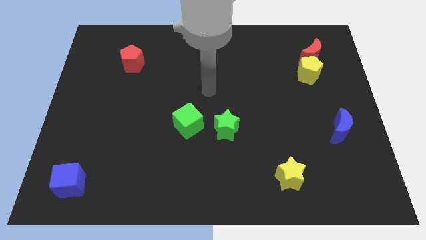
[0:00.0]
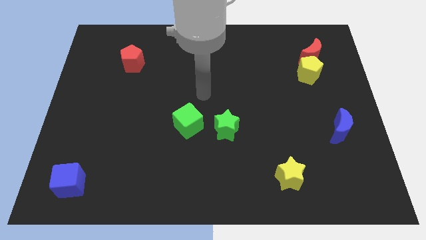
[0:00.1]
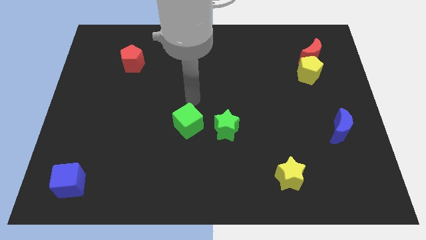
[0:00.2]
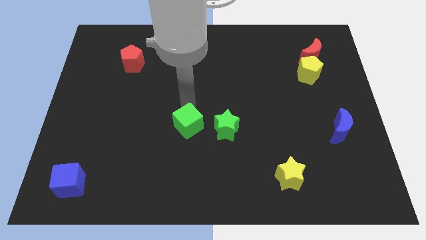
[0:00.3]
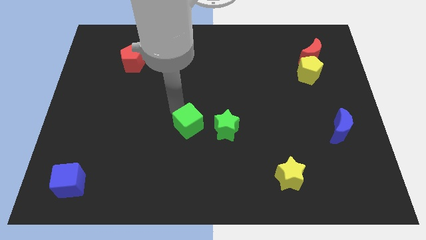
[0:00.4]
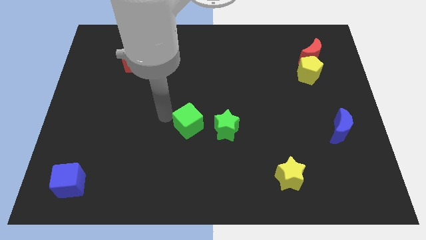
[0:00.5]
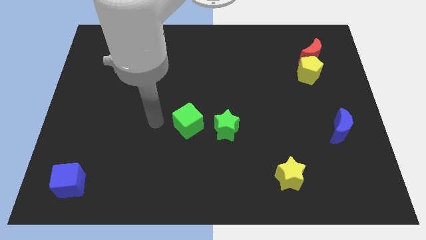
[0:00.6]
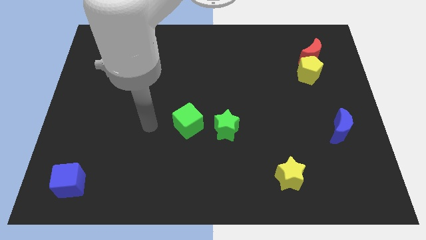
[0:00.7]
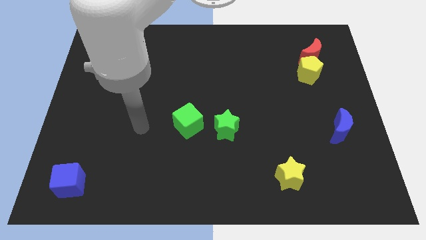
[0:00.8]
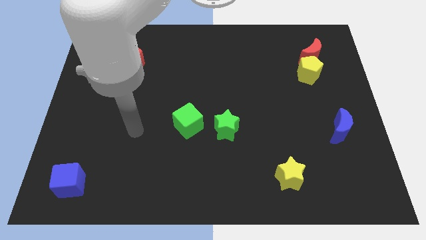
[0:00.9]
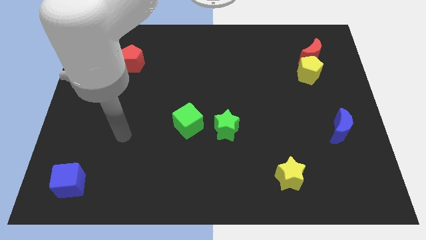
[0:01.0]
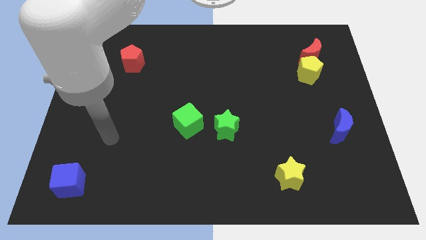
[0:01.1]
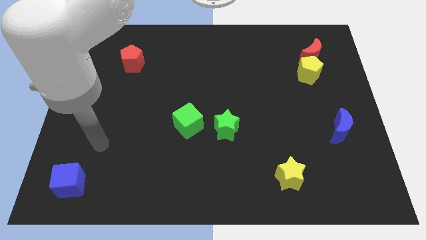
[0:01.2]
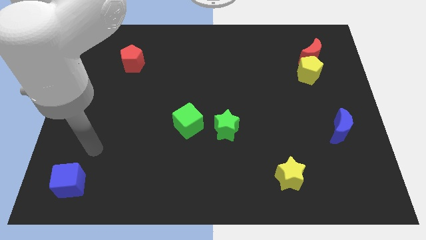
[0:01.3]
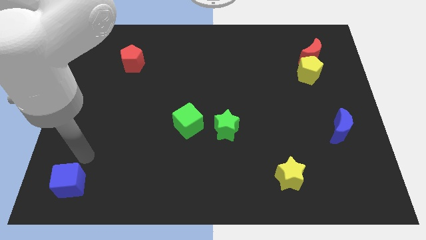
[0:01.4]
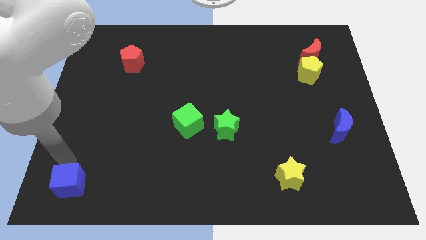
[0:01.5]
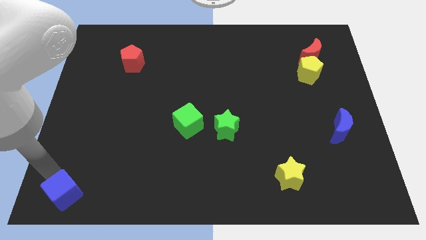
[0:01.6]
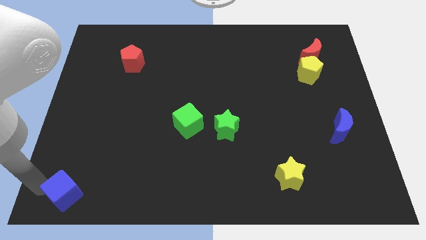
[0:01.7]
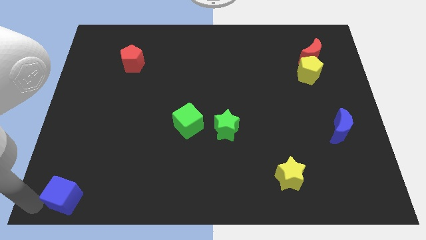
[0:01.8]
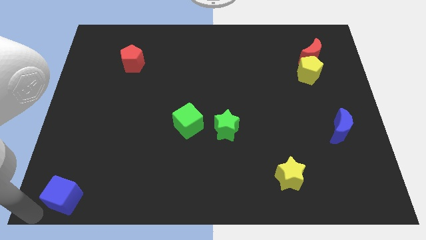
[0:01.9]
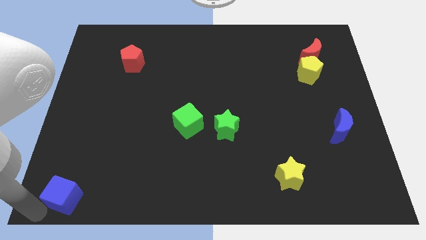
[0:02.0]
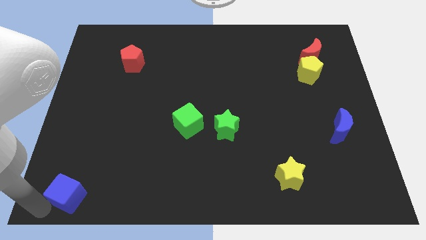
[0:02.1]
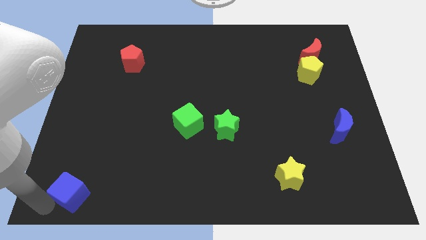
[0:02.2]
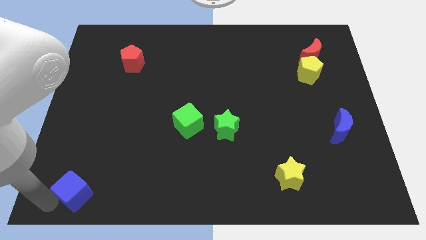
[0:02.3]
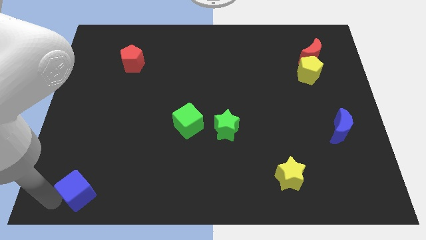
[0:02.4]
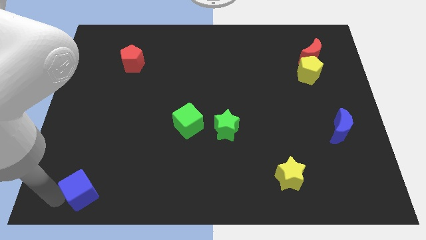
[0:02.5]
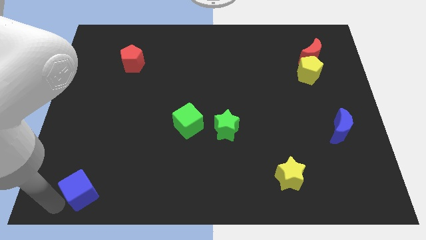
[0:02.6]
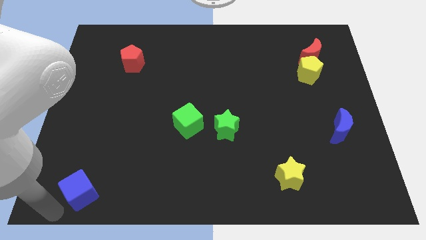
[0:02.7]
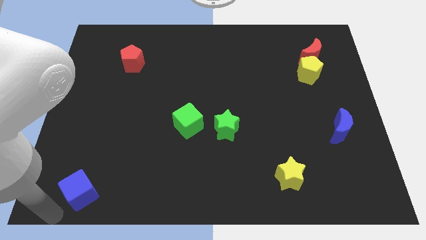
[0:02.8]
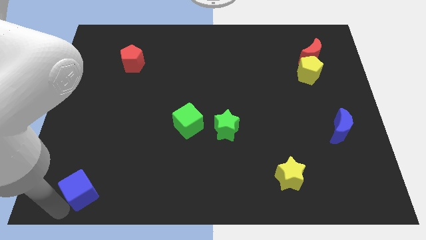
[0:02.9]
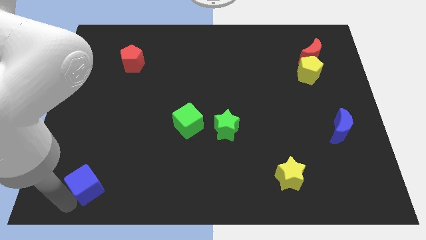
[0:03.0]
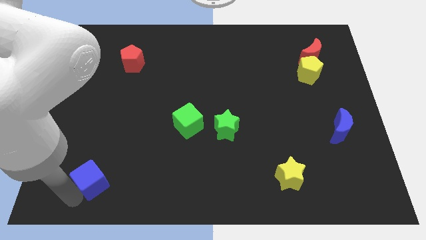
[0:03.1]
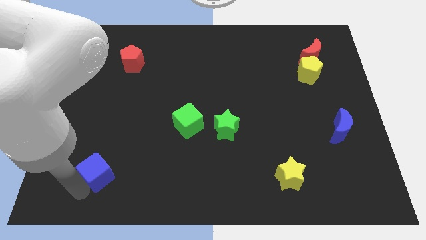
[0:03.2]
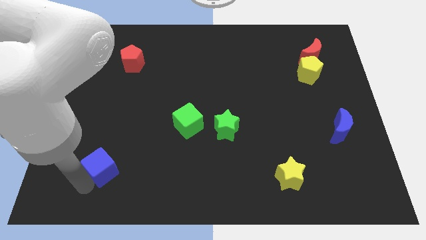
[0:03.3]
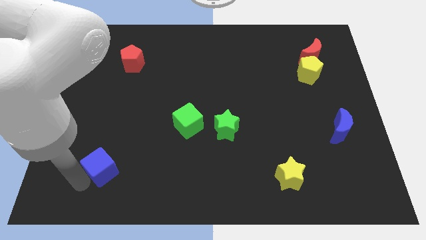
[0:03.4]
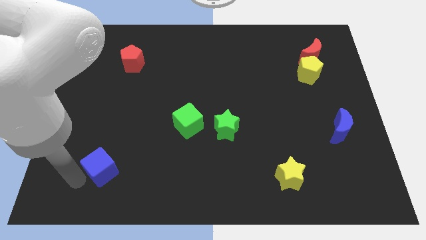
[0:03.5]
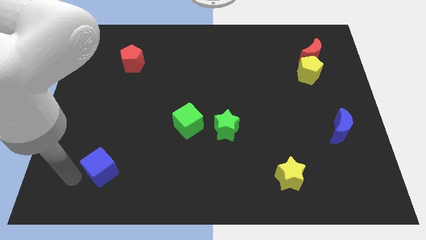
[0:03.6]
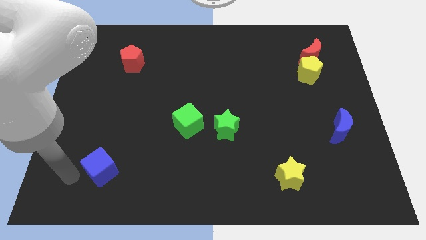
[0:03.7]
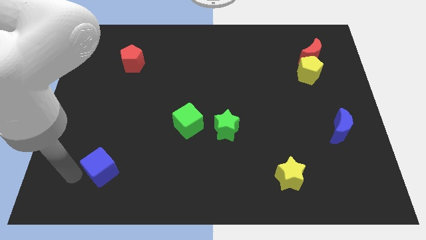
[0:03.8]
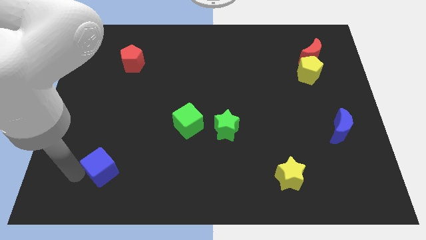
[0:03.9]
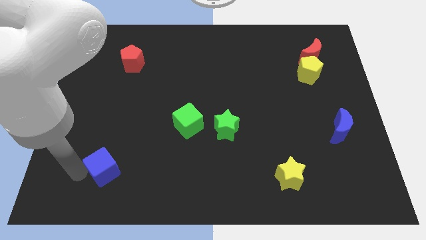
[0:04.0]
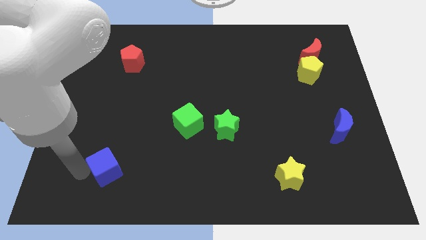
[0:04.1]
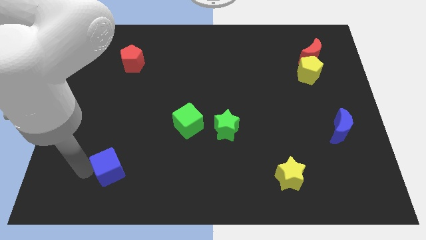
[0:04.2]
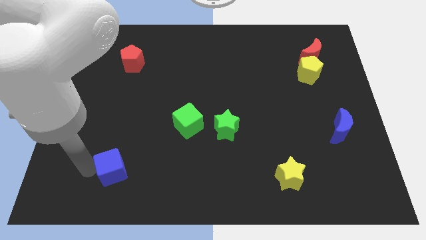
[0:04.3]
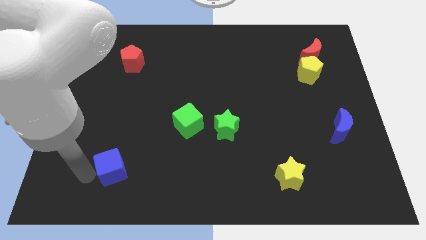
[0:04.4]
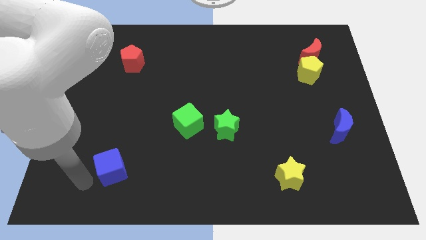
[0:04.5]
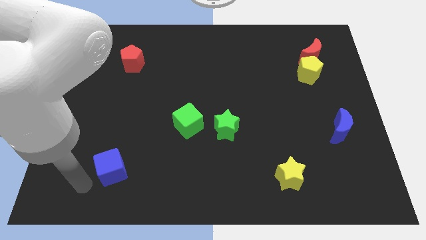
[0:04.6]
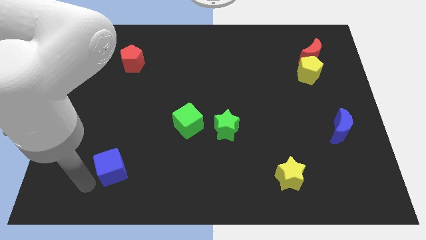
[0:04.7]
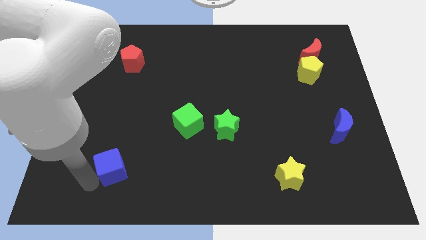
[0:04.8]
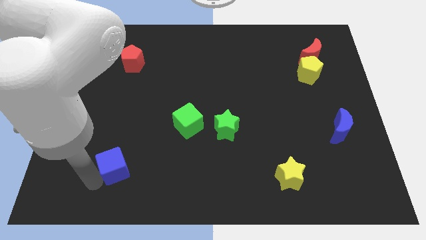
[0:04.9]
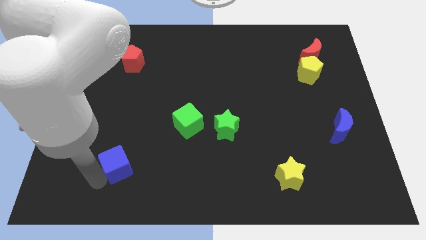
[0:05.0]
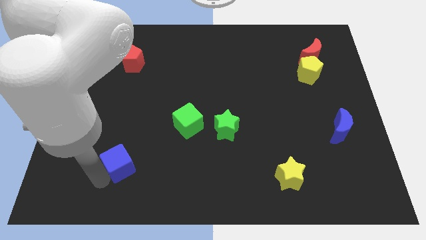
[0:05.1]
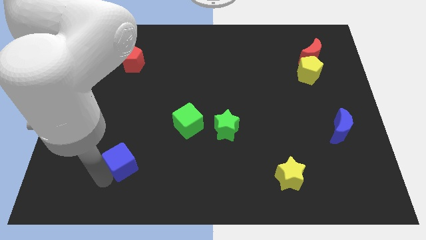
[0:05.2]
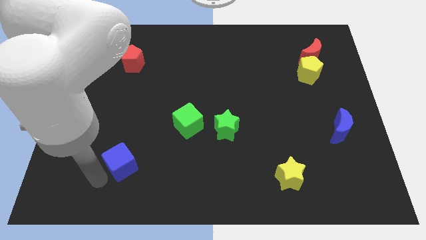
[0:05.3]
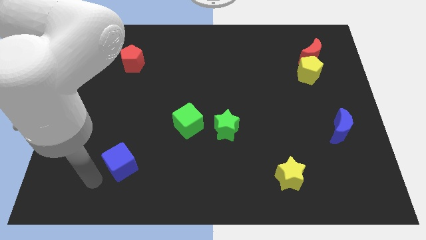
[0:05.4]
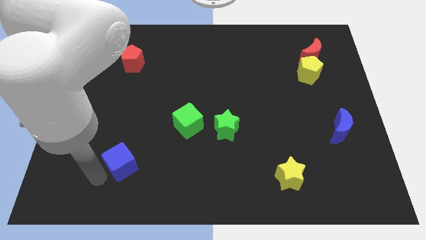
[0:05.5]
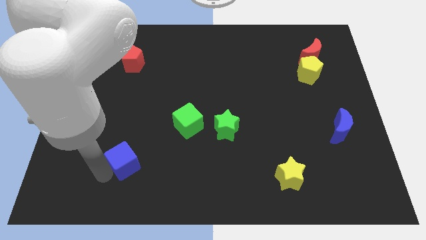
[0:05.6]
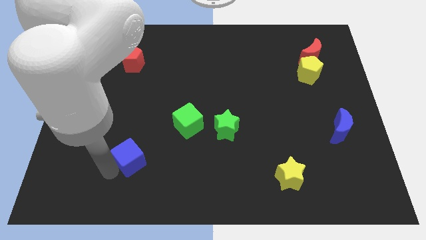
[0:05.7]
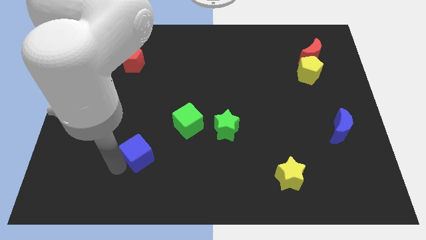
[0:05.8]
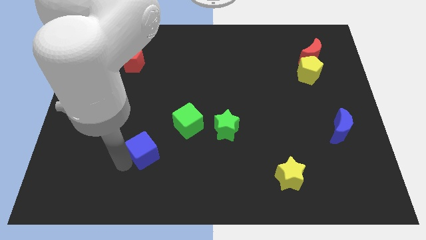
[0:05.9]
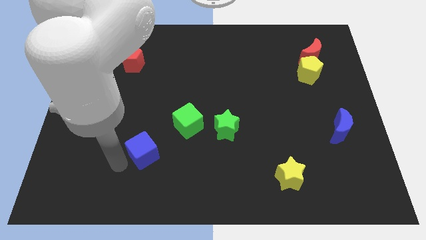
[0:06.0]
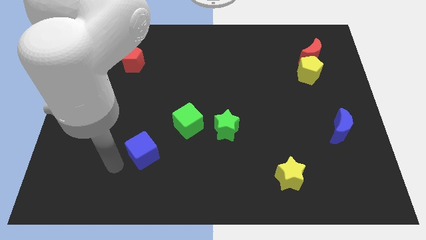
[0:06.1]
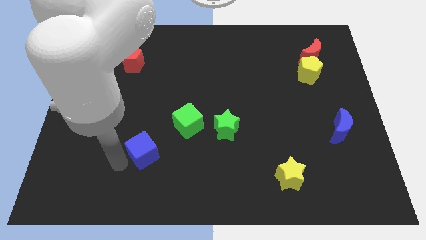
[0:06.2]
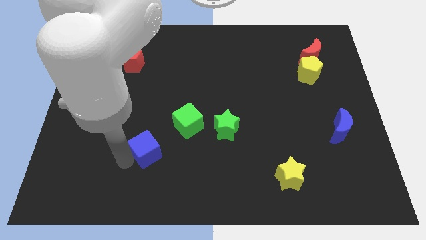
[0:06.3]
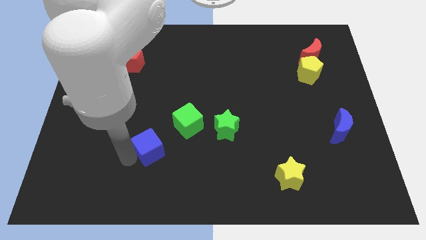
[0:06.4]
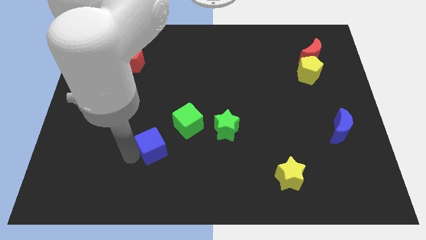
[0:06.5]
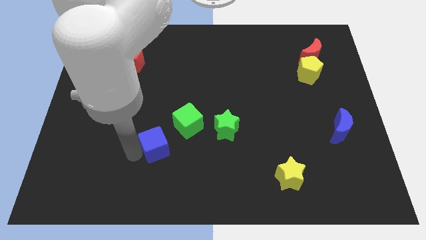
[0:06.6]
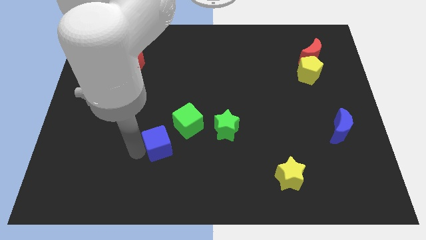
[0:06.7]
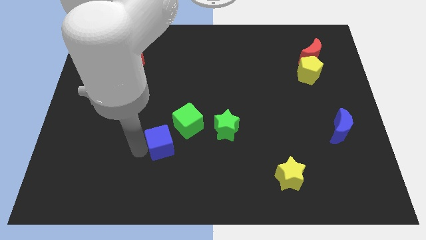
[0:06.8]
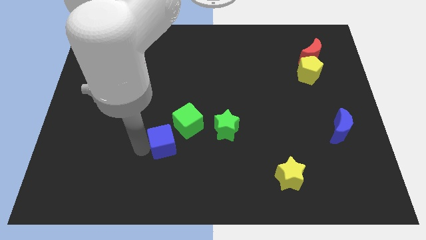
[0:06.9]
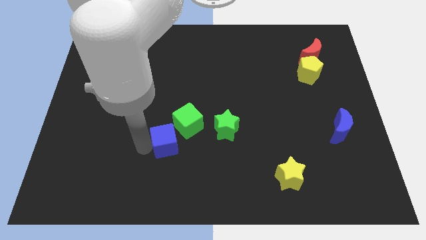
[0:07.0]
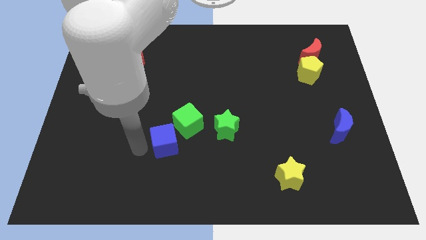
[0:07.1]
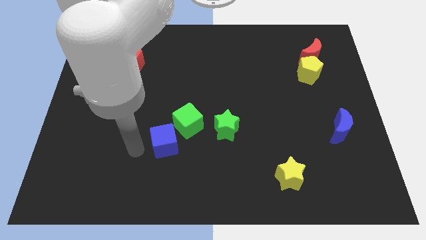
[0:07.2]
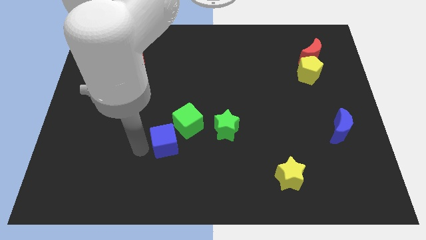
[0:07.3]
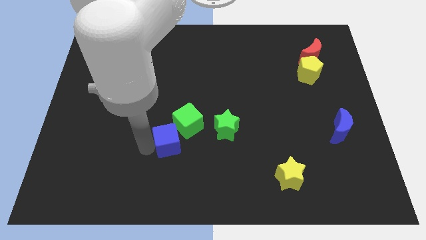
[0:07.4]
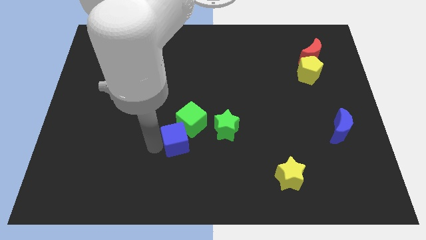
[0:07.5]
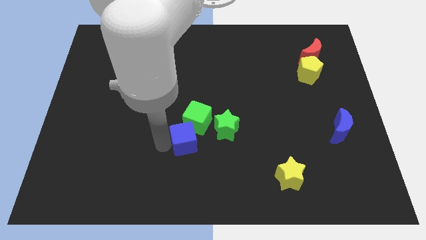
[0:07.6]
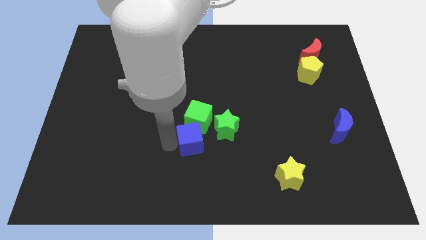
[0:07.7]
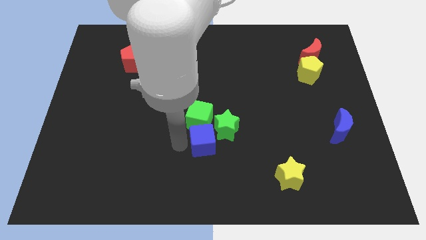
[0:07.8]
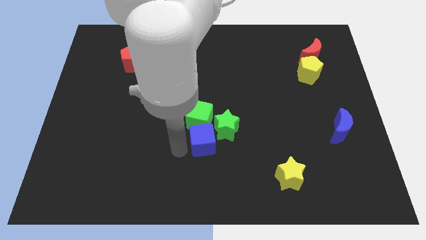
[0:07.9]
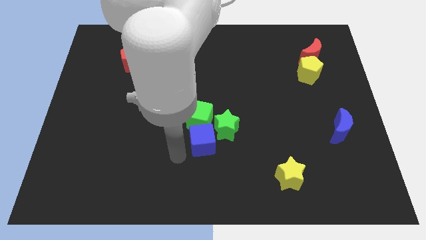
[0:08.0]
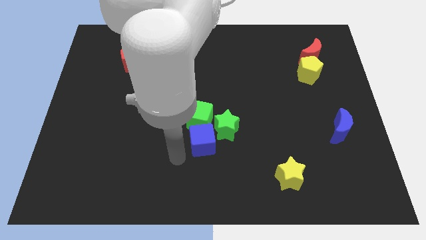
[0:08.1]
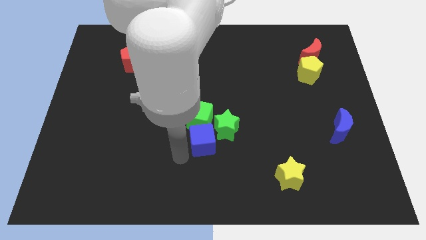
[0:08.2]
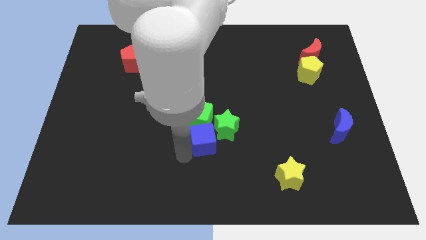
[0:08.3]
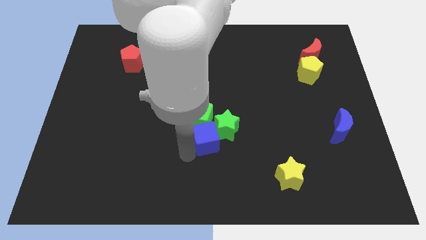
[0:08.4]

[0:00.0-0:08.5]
push the blue cube close to the green star
